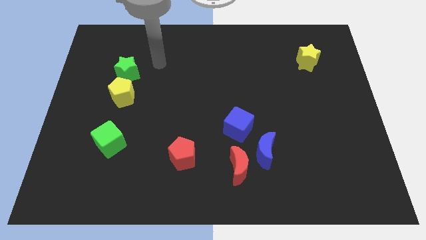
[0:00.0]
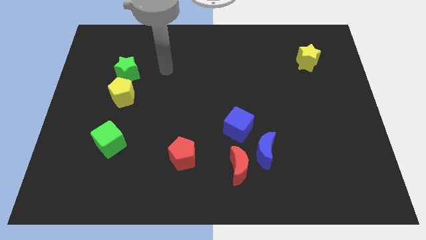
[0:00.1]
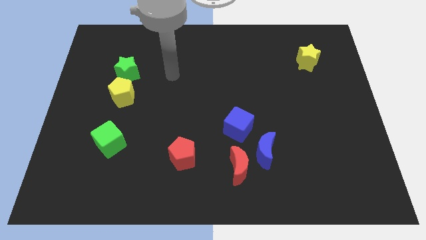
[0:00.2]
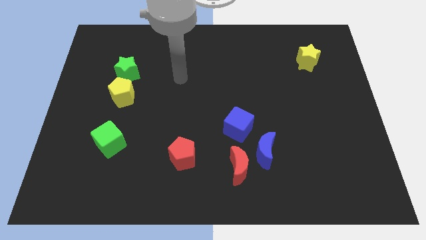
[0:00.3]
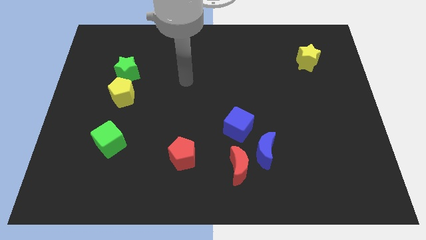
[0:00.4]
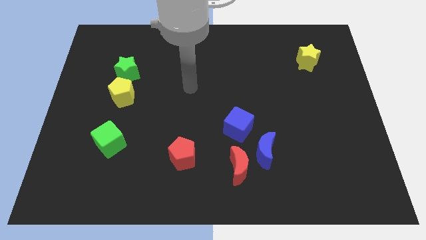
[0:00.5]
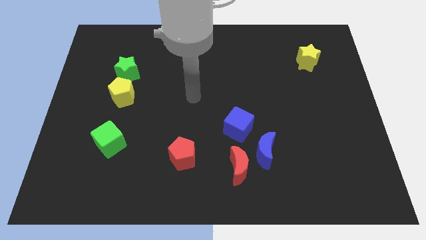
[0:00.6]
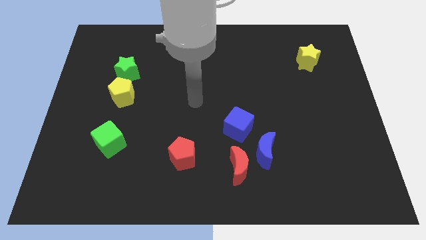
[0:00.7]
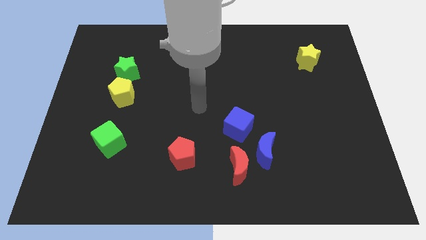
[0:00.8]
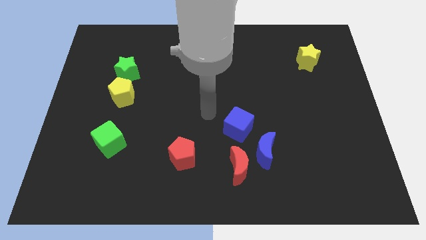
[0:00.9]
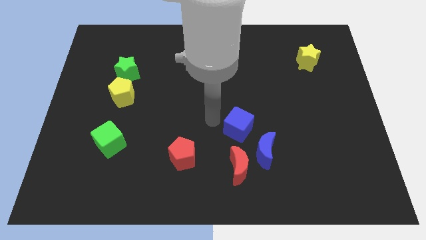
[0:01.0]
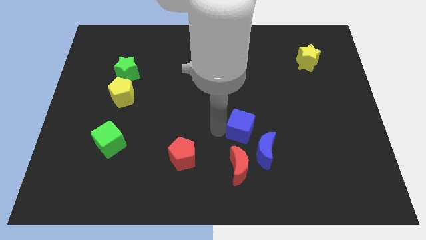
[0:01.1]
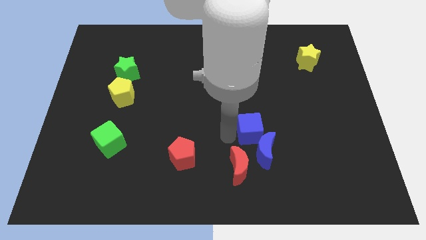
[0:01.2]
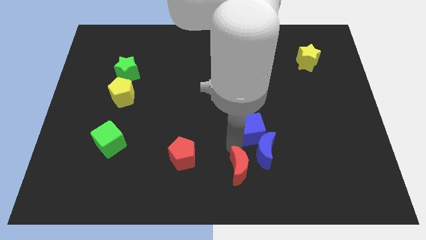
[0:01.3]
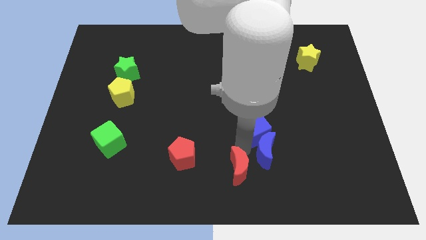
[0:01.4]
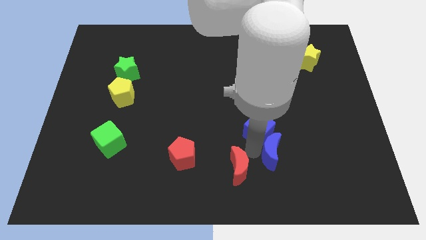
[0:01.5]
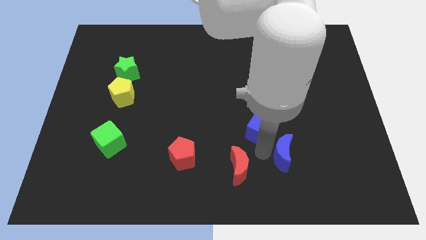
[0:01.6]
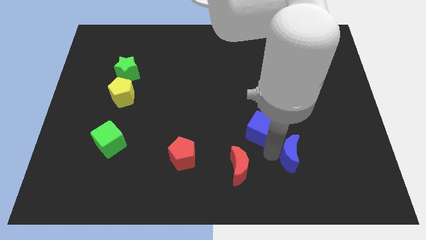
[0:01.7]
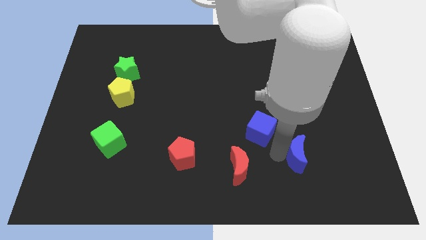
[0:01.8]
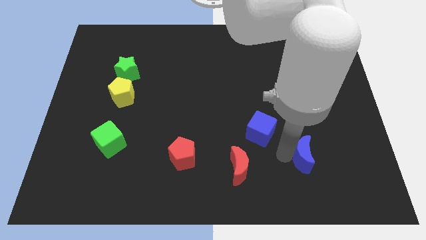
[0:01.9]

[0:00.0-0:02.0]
pull the blue moon apart from the red moon and blue cube

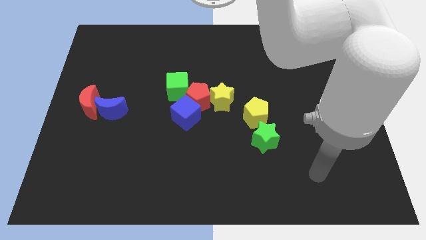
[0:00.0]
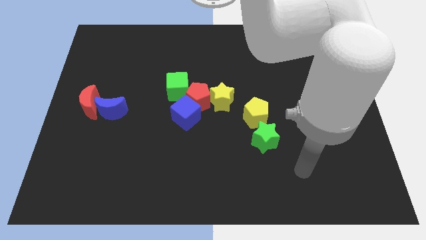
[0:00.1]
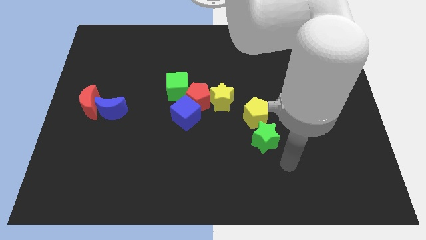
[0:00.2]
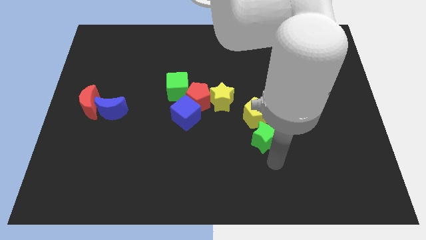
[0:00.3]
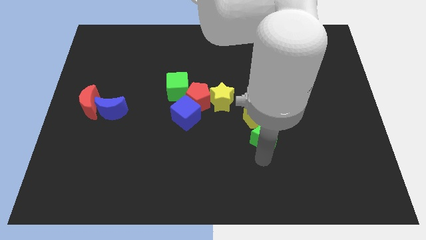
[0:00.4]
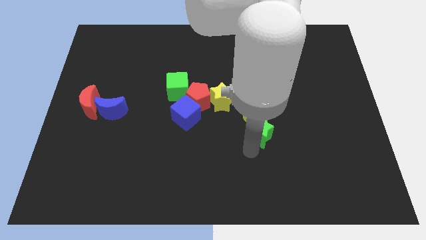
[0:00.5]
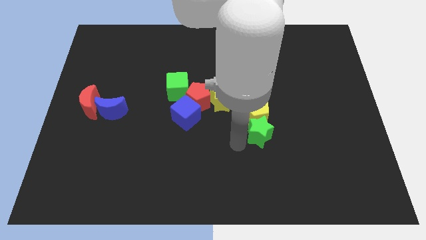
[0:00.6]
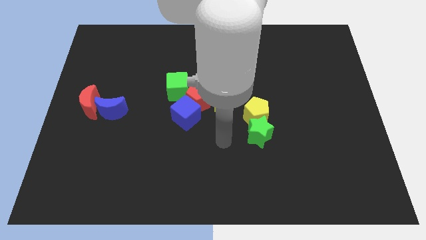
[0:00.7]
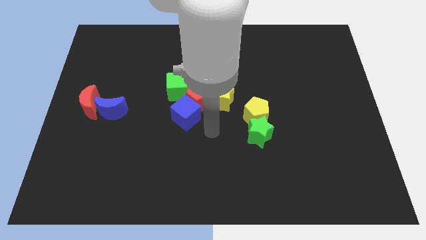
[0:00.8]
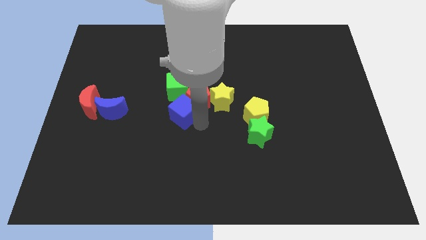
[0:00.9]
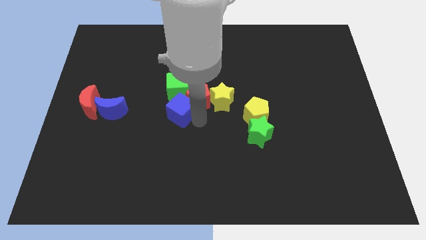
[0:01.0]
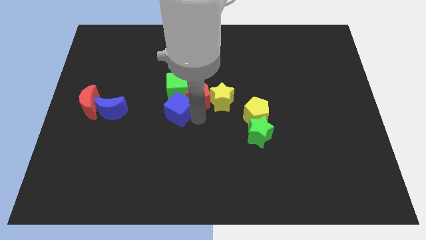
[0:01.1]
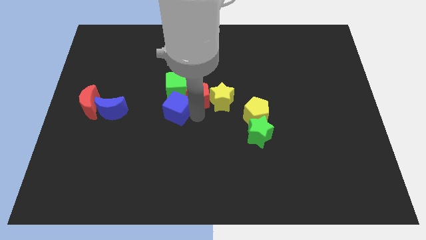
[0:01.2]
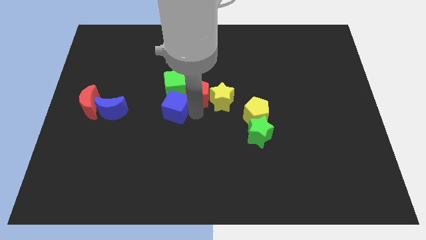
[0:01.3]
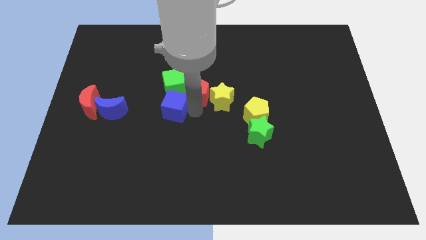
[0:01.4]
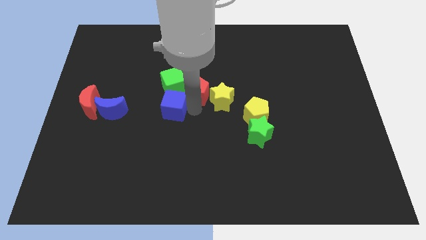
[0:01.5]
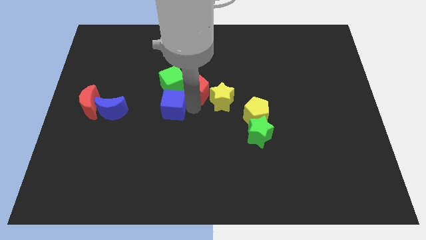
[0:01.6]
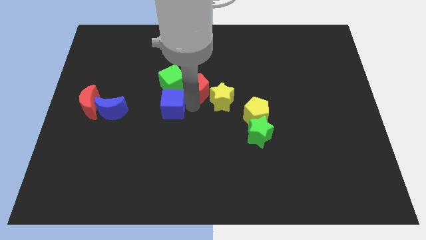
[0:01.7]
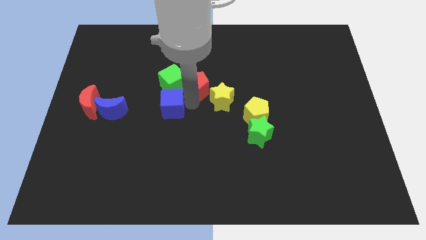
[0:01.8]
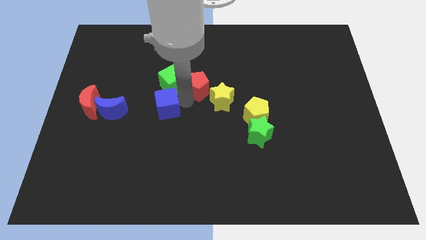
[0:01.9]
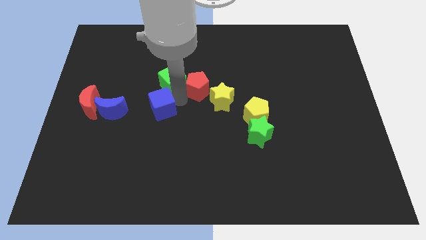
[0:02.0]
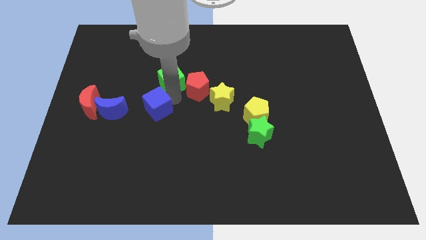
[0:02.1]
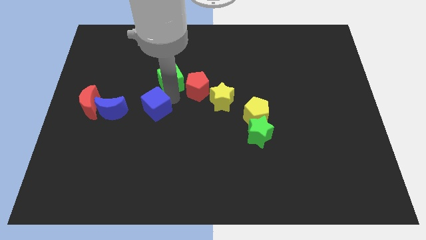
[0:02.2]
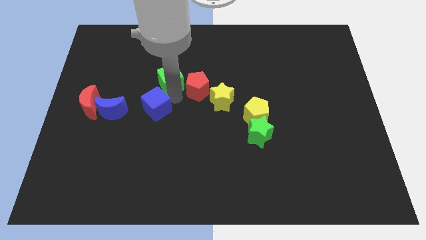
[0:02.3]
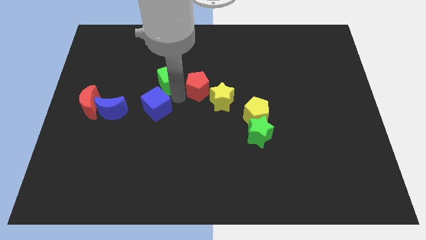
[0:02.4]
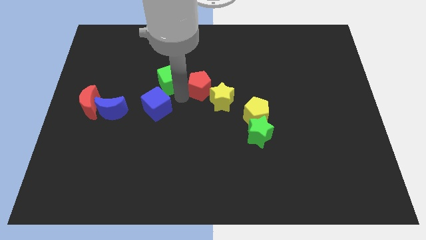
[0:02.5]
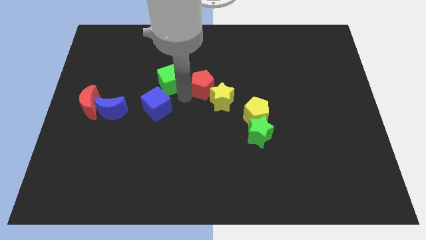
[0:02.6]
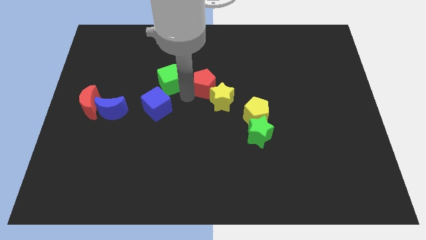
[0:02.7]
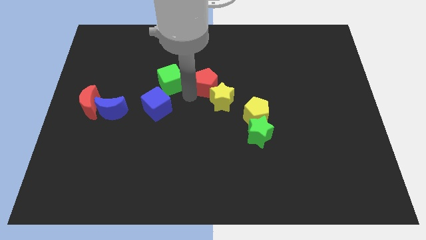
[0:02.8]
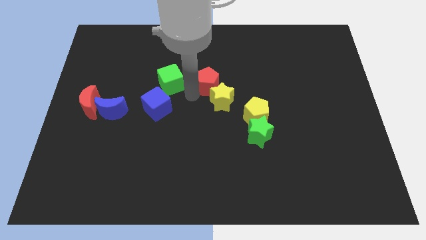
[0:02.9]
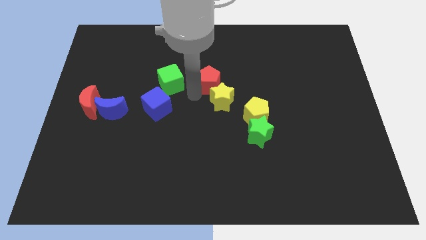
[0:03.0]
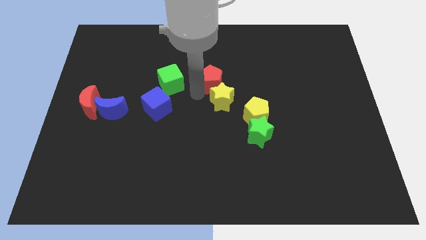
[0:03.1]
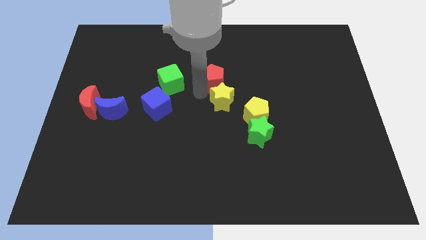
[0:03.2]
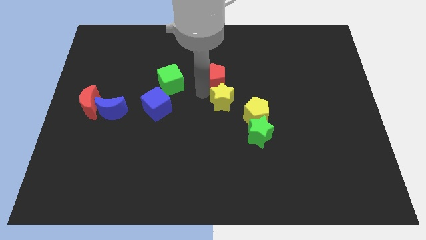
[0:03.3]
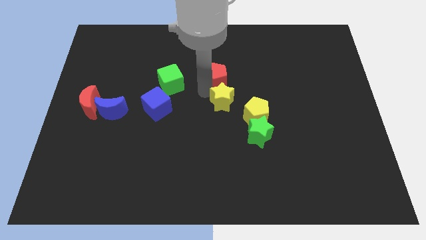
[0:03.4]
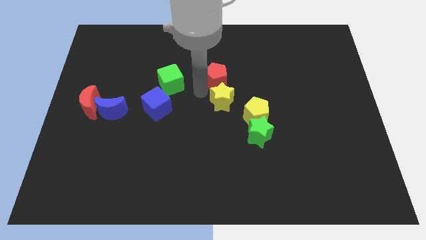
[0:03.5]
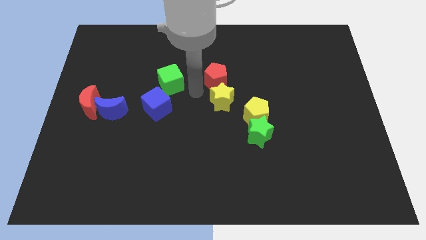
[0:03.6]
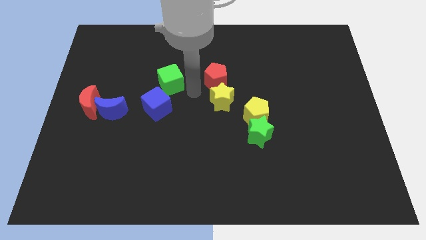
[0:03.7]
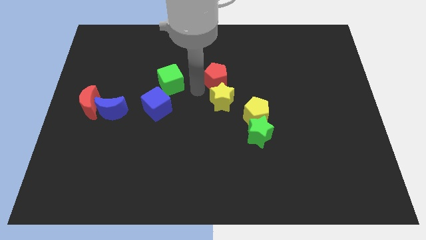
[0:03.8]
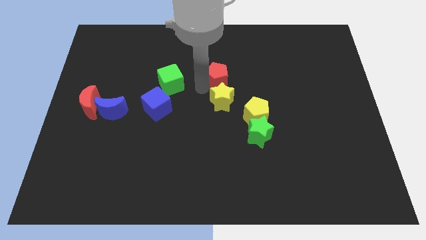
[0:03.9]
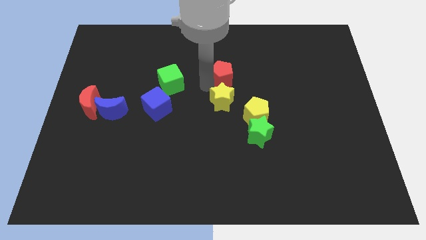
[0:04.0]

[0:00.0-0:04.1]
pull the red pentagon apart from the clump

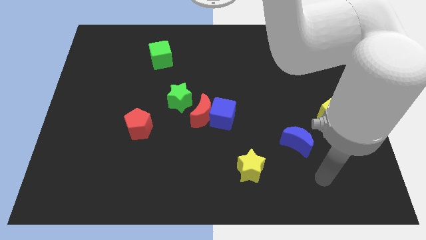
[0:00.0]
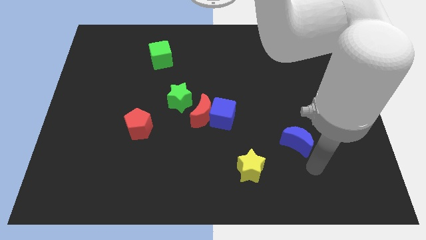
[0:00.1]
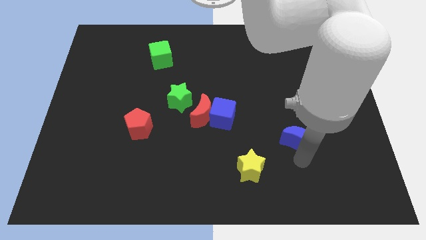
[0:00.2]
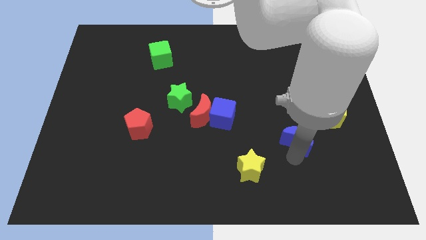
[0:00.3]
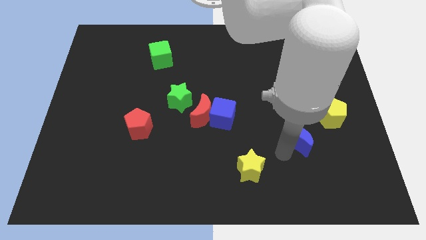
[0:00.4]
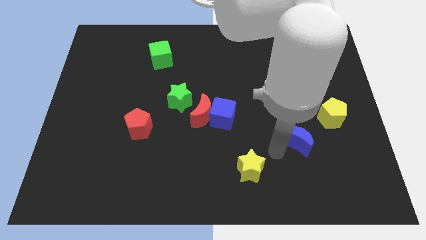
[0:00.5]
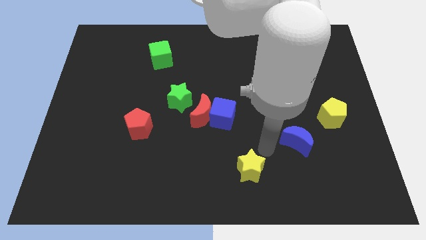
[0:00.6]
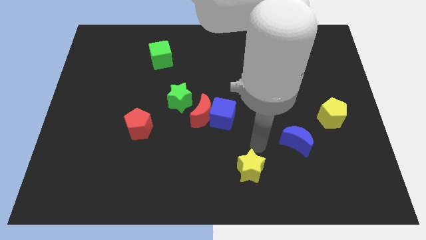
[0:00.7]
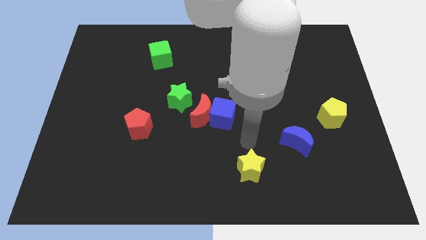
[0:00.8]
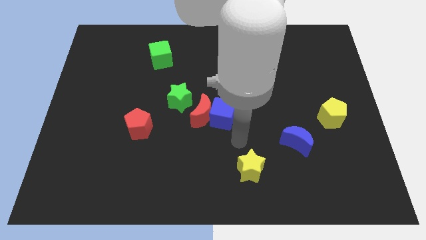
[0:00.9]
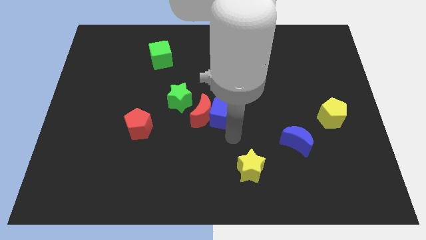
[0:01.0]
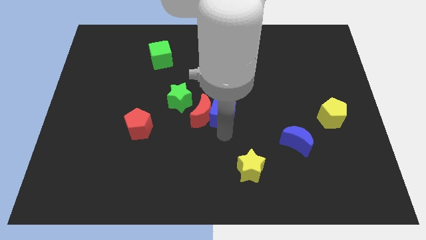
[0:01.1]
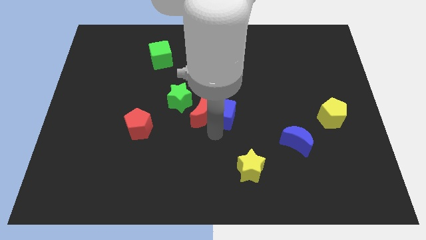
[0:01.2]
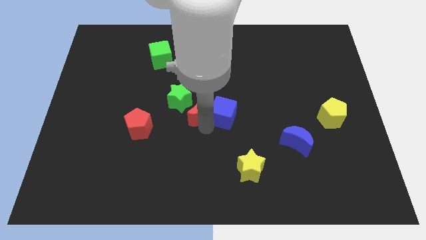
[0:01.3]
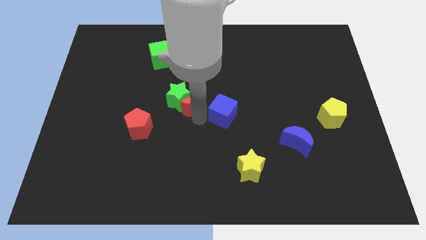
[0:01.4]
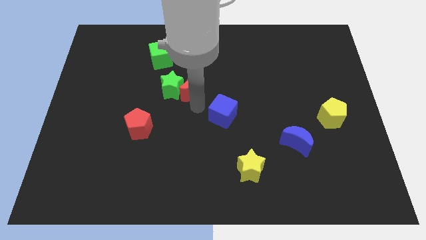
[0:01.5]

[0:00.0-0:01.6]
separate the blue cube from the red moon

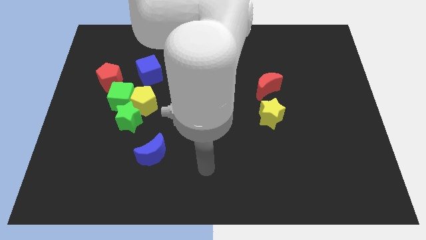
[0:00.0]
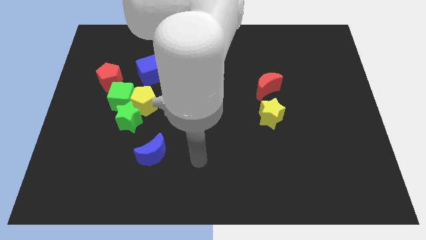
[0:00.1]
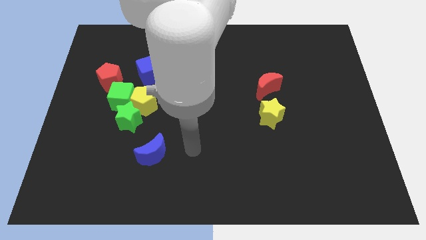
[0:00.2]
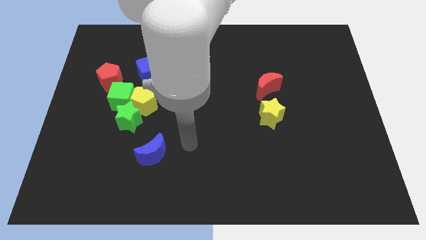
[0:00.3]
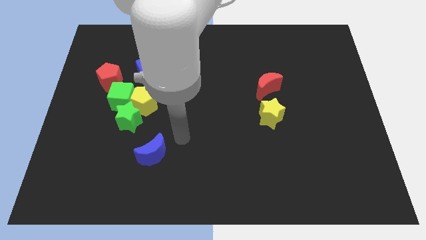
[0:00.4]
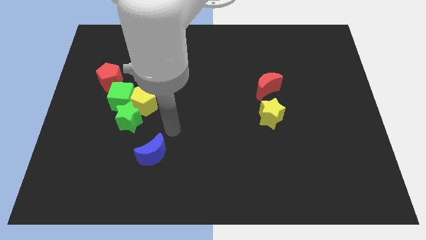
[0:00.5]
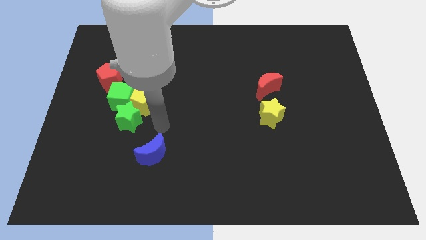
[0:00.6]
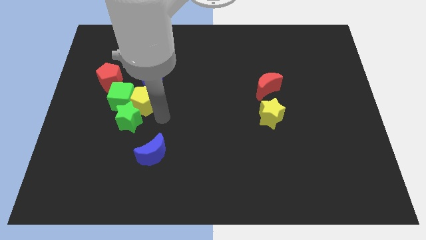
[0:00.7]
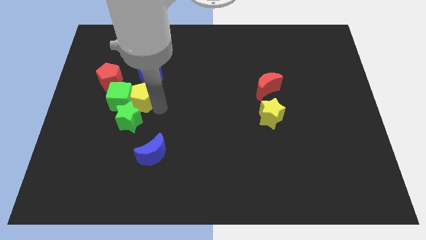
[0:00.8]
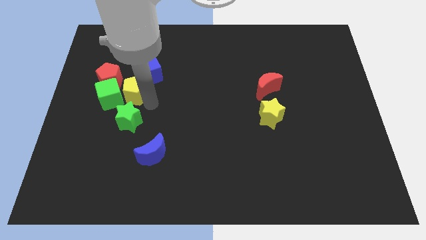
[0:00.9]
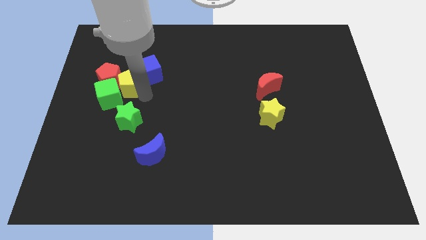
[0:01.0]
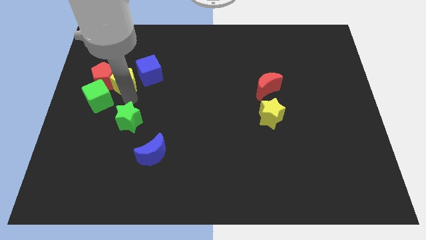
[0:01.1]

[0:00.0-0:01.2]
separate the green star from the yellow pentagon and green cube

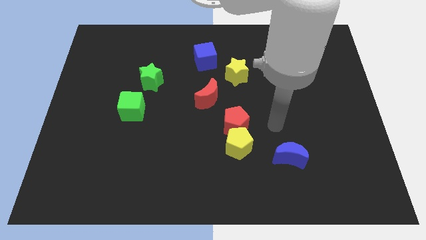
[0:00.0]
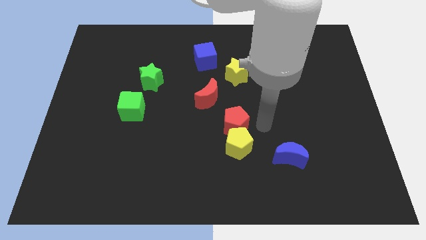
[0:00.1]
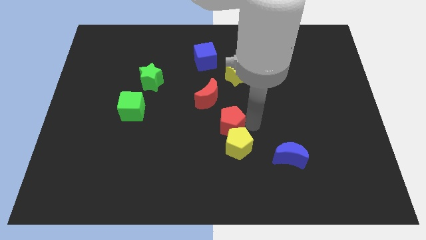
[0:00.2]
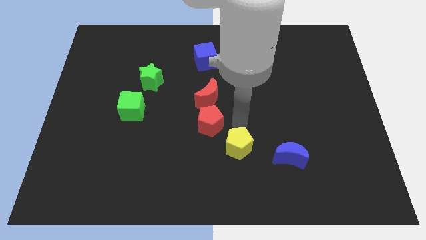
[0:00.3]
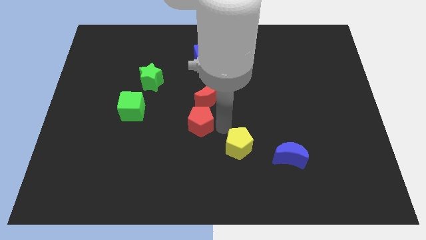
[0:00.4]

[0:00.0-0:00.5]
move the yellow pentagon away from the red pentagon

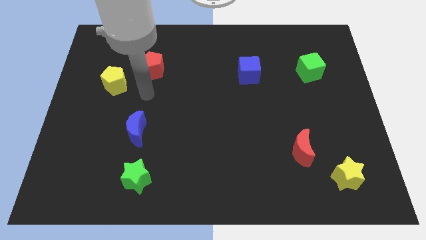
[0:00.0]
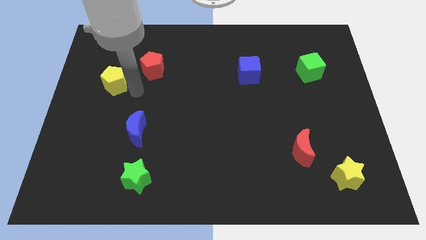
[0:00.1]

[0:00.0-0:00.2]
move the red pentagon away from the yellow pentagon
